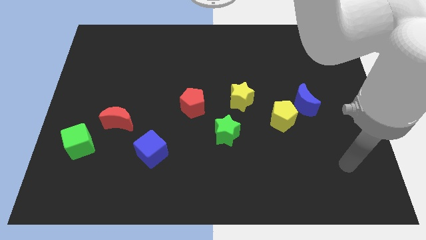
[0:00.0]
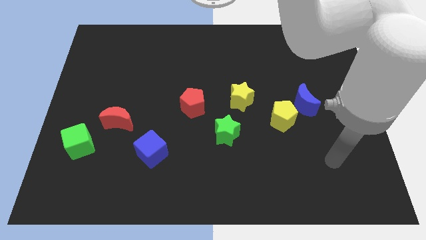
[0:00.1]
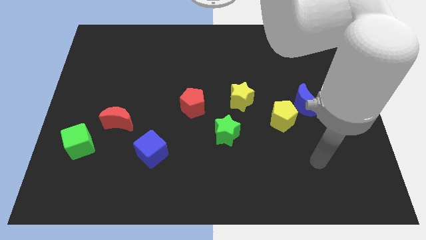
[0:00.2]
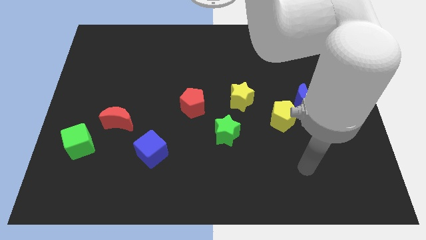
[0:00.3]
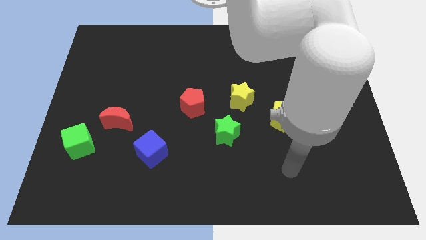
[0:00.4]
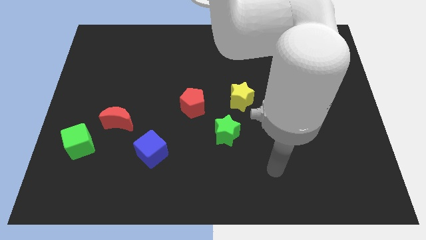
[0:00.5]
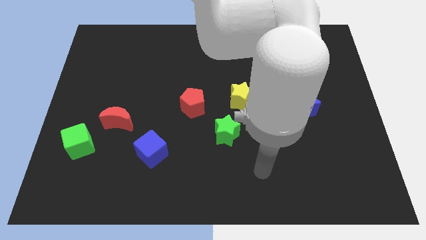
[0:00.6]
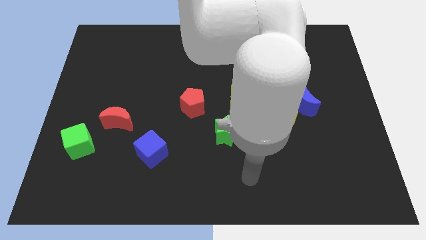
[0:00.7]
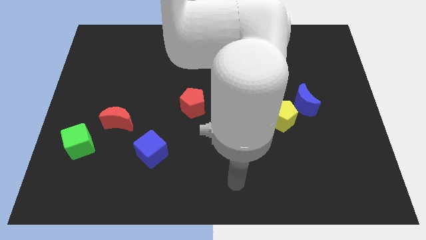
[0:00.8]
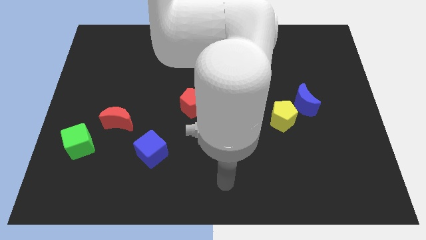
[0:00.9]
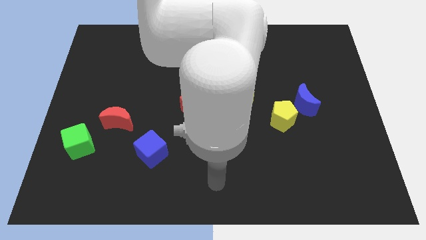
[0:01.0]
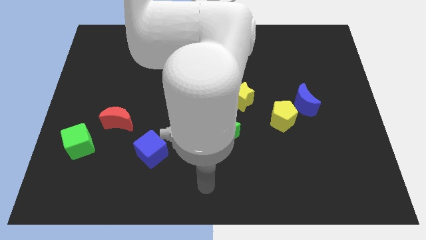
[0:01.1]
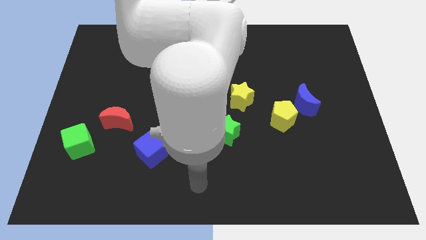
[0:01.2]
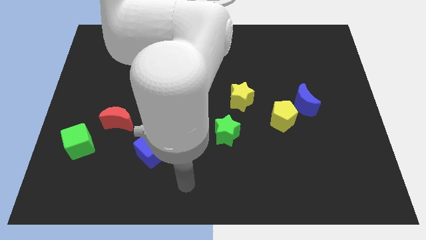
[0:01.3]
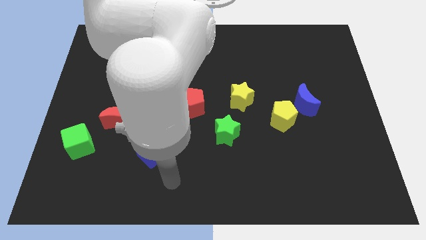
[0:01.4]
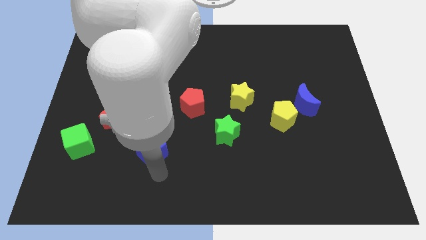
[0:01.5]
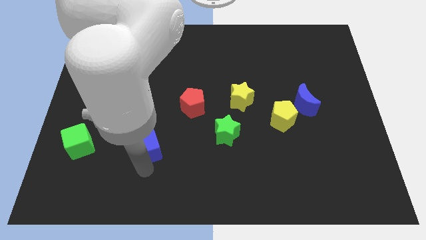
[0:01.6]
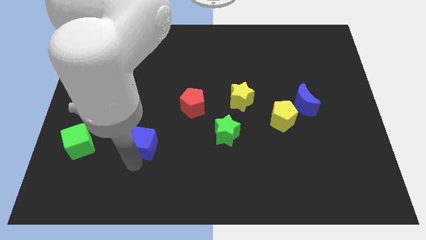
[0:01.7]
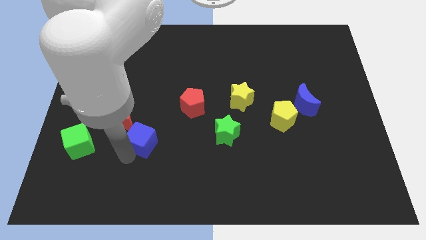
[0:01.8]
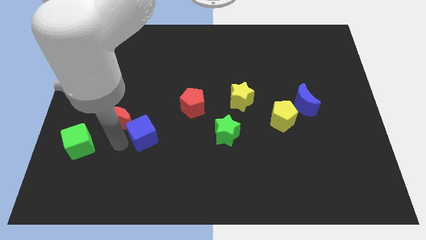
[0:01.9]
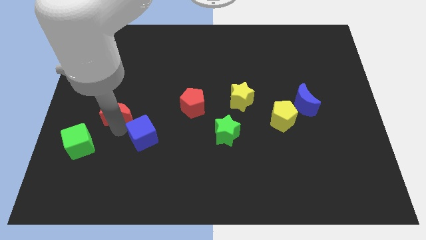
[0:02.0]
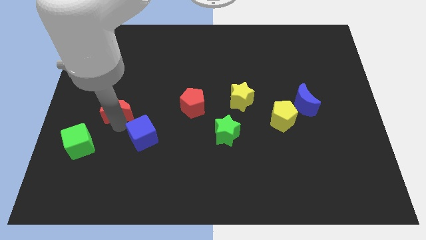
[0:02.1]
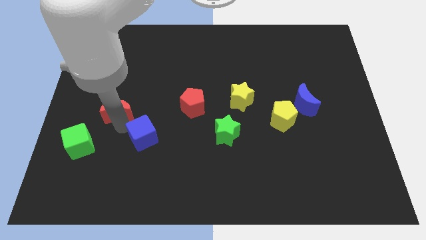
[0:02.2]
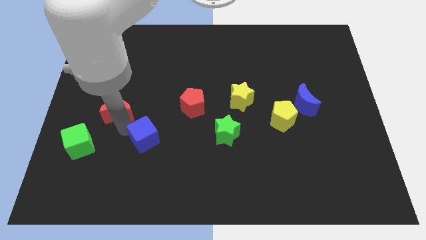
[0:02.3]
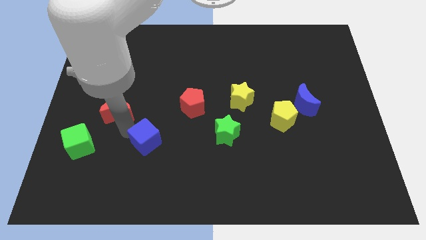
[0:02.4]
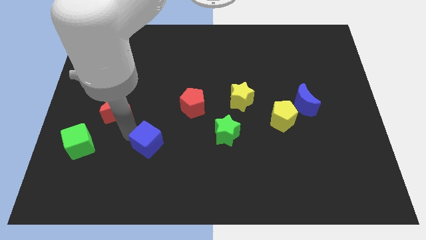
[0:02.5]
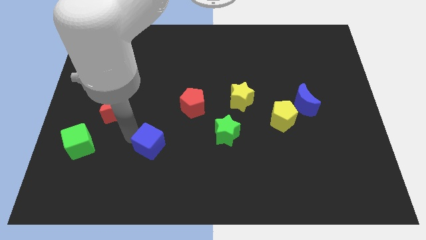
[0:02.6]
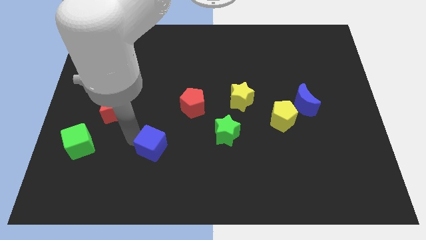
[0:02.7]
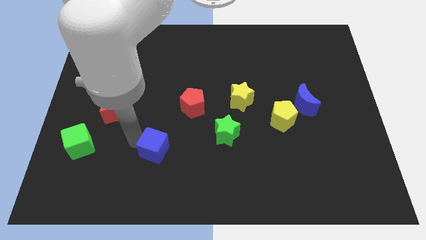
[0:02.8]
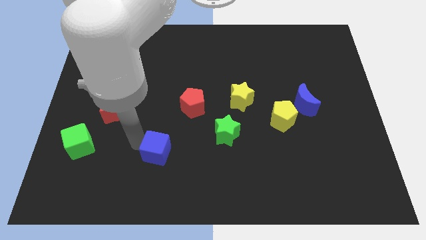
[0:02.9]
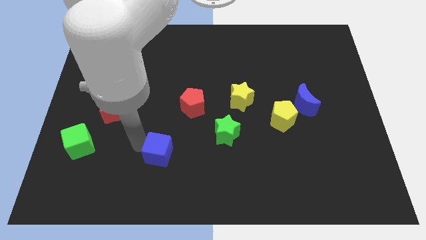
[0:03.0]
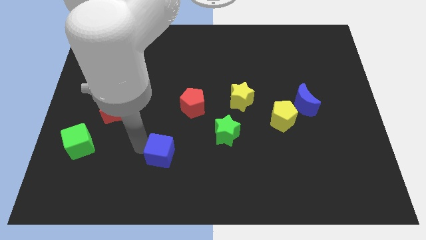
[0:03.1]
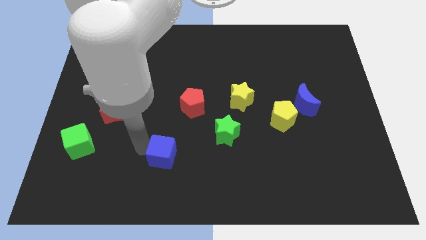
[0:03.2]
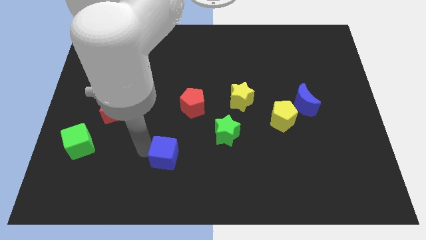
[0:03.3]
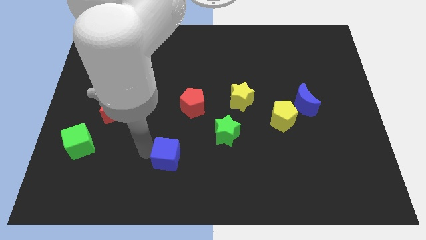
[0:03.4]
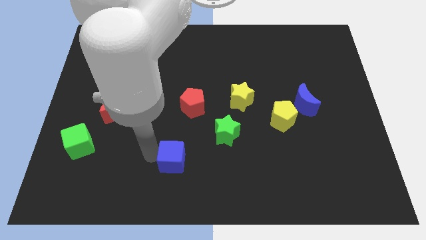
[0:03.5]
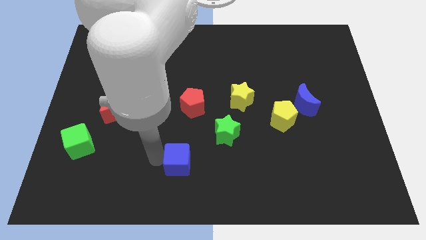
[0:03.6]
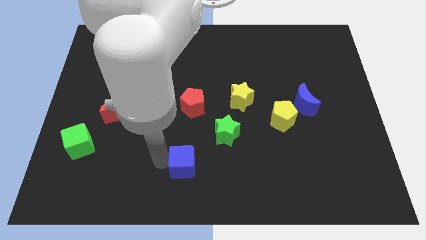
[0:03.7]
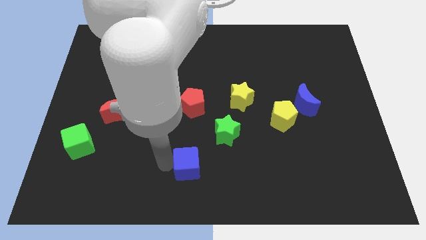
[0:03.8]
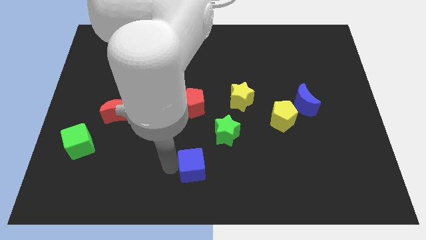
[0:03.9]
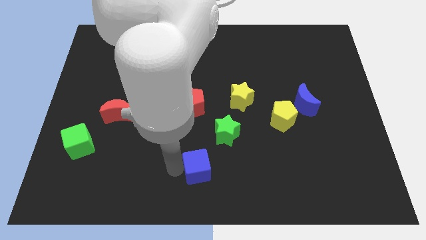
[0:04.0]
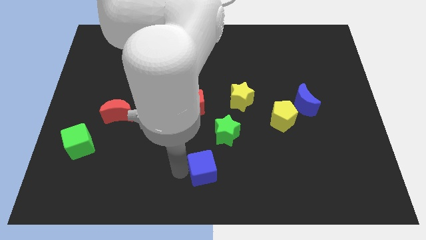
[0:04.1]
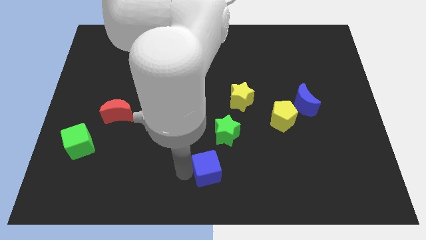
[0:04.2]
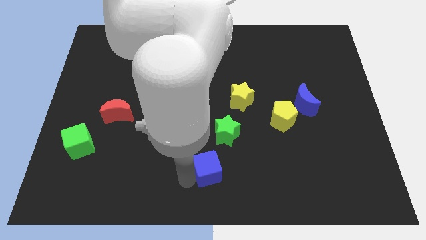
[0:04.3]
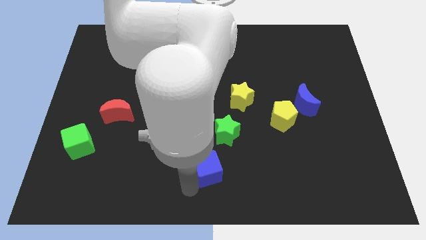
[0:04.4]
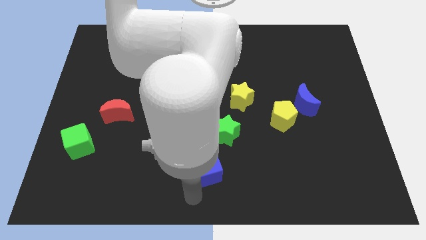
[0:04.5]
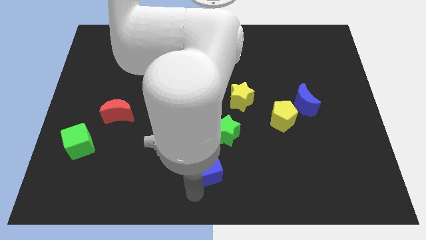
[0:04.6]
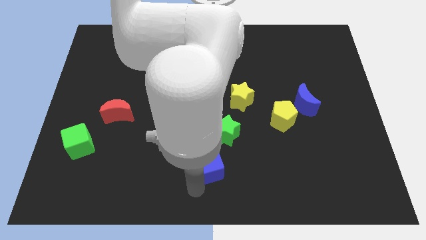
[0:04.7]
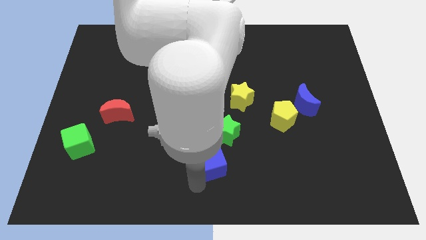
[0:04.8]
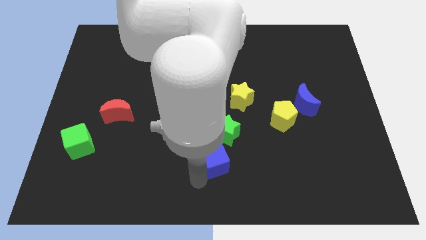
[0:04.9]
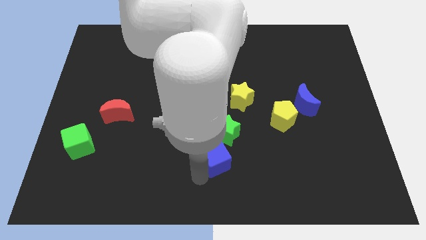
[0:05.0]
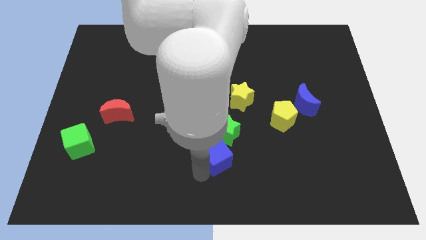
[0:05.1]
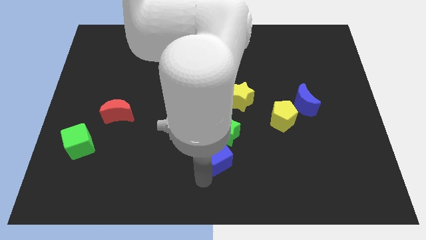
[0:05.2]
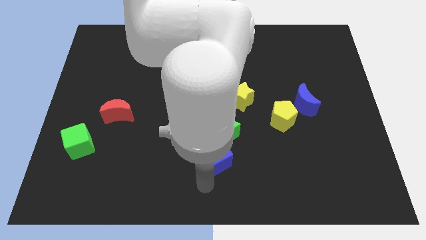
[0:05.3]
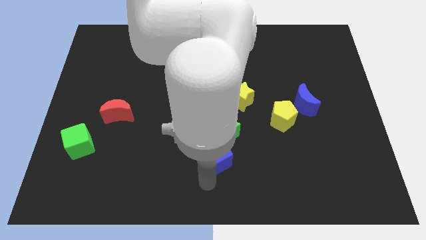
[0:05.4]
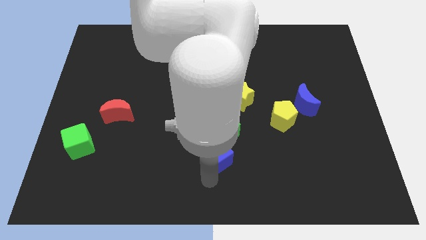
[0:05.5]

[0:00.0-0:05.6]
slide the blue cube to the green star

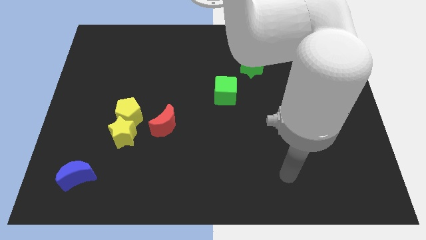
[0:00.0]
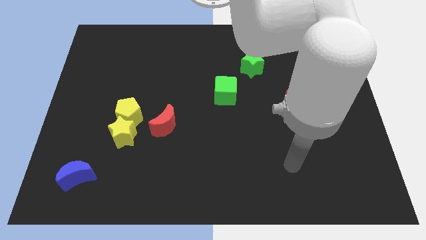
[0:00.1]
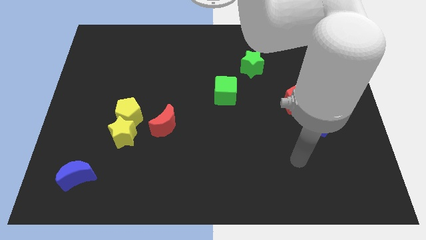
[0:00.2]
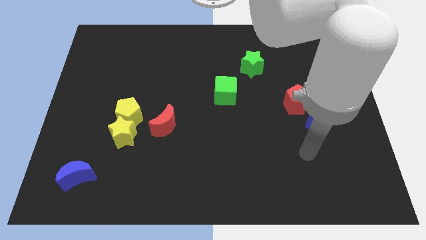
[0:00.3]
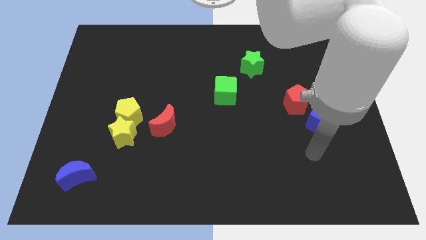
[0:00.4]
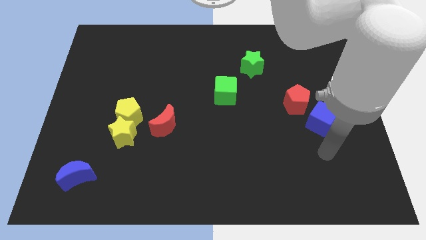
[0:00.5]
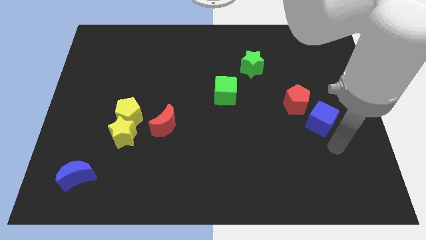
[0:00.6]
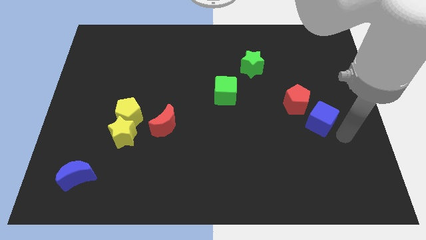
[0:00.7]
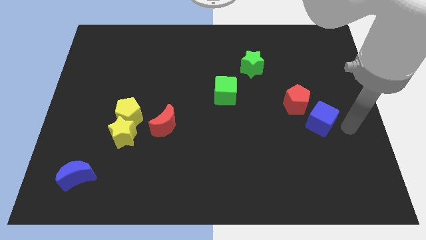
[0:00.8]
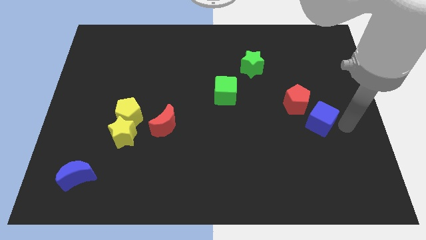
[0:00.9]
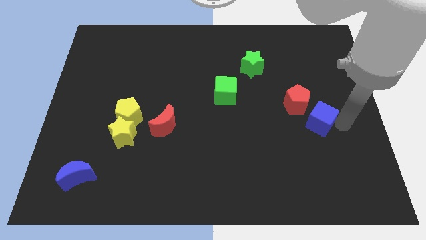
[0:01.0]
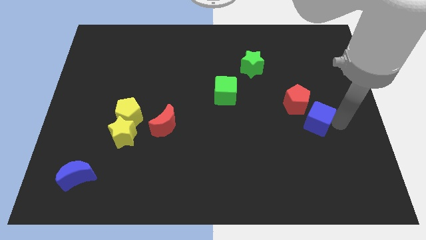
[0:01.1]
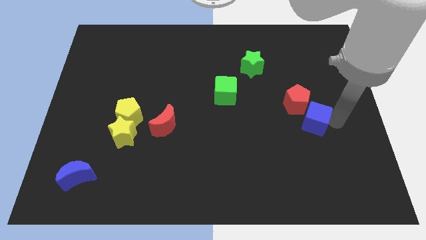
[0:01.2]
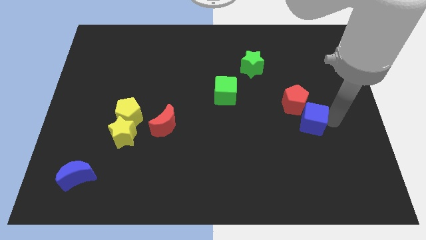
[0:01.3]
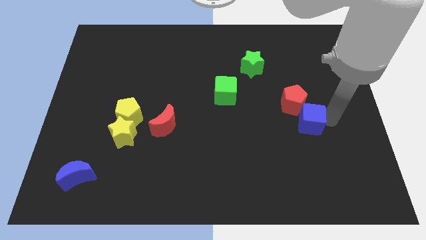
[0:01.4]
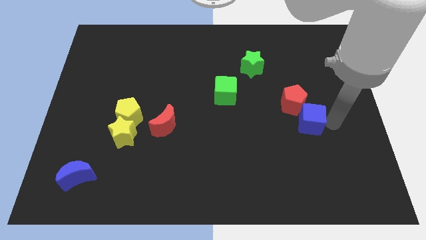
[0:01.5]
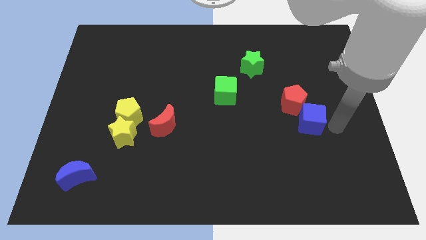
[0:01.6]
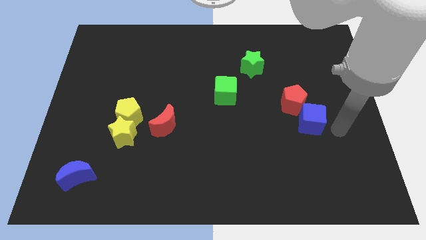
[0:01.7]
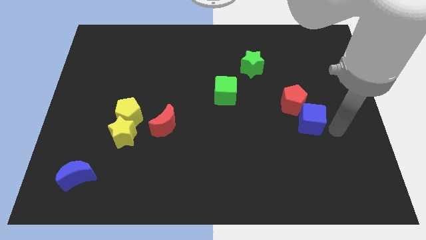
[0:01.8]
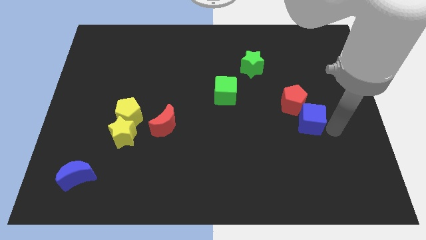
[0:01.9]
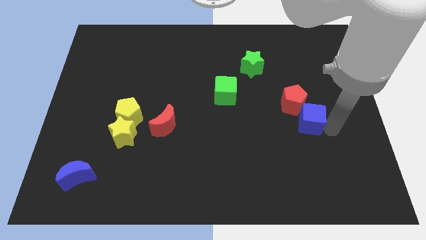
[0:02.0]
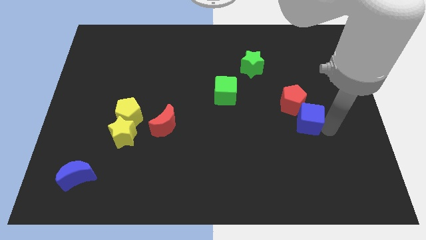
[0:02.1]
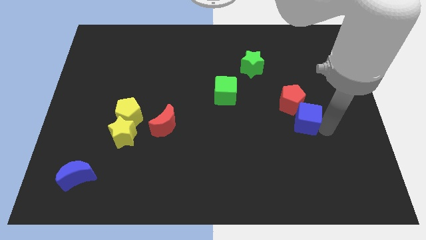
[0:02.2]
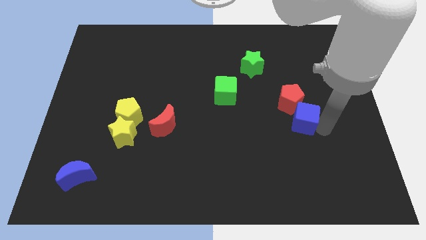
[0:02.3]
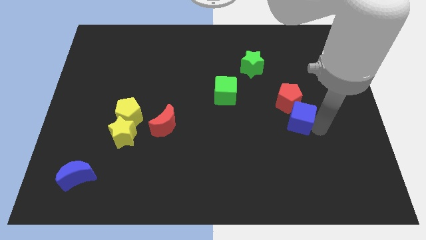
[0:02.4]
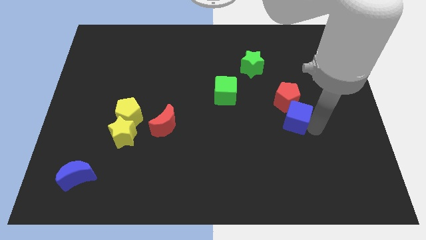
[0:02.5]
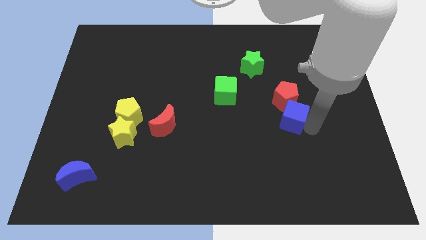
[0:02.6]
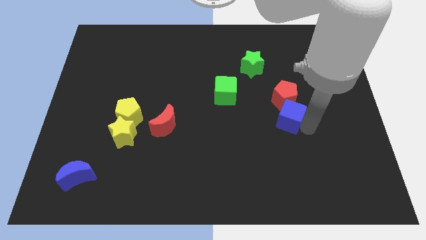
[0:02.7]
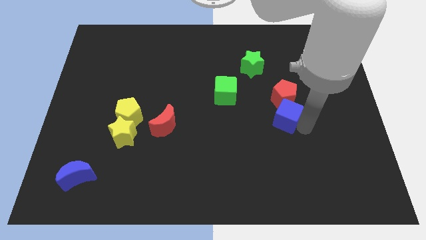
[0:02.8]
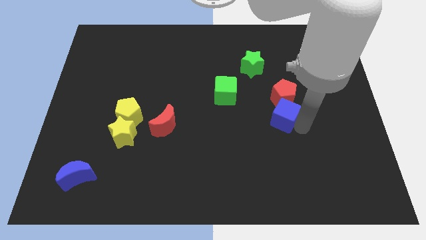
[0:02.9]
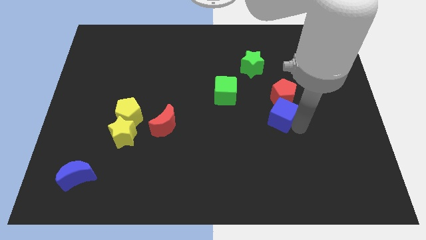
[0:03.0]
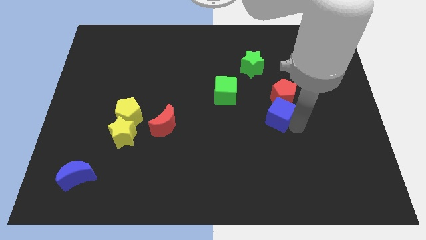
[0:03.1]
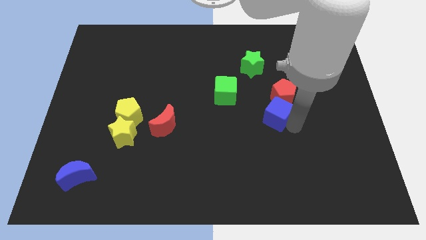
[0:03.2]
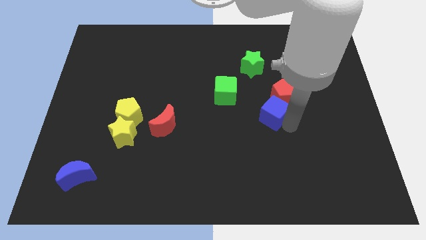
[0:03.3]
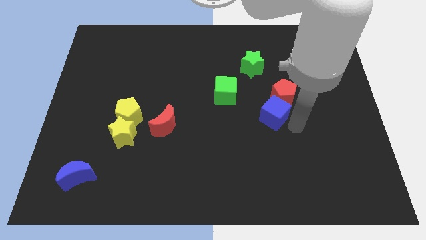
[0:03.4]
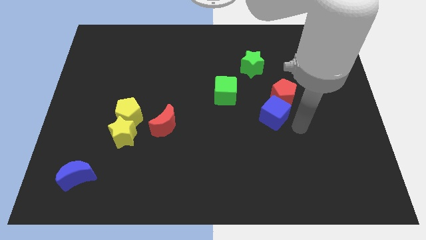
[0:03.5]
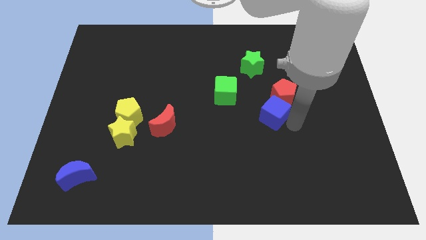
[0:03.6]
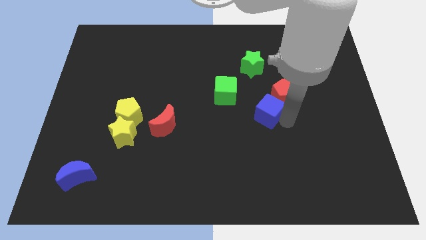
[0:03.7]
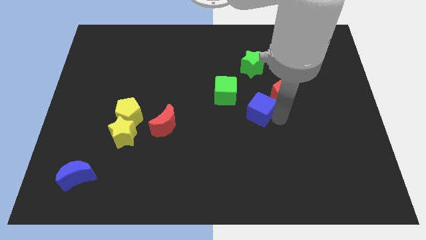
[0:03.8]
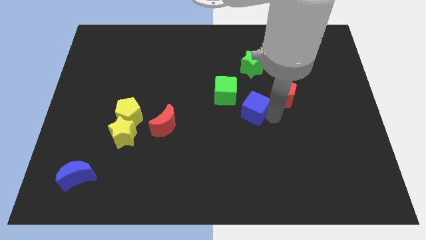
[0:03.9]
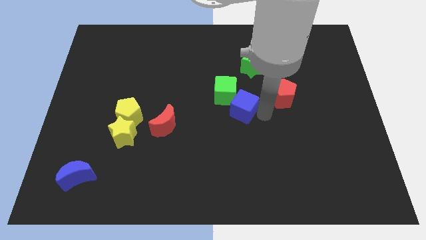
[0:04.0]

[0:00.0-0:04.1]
move the blue cube towards the green cube
